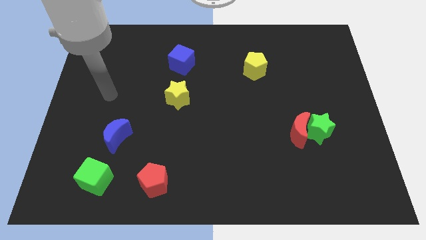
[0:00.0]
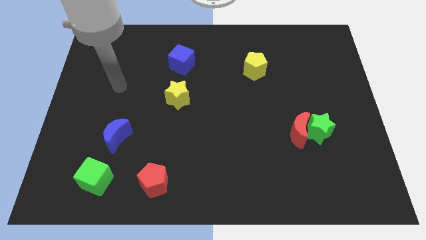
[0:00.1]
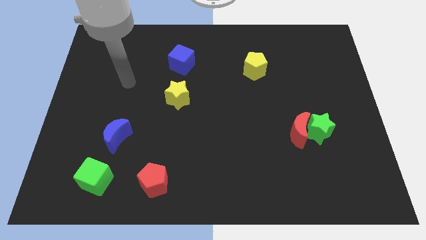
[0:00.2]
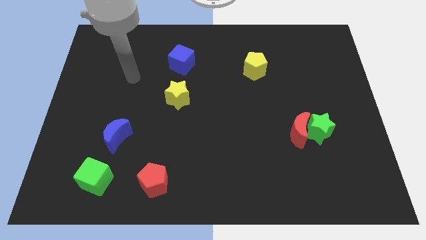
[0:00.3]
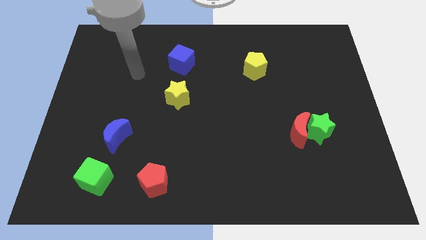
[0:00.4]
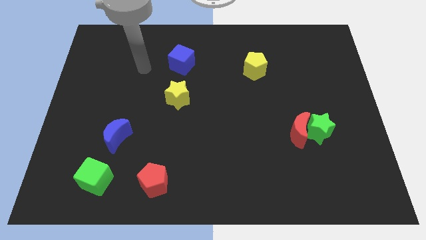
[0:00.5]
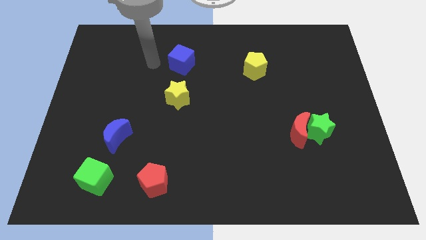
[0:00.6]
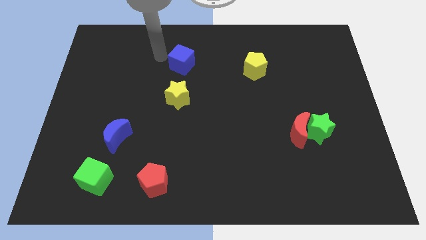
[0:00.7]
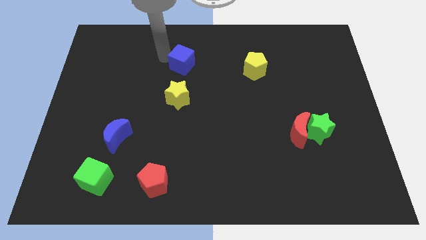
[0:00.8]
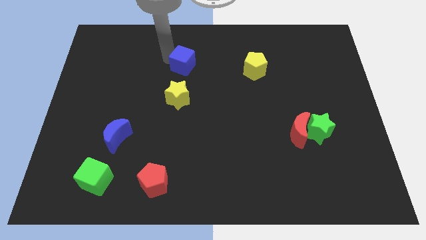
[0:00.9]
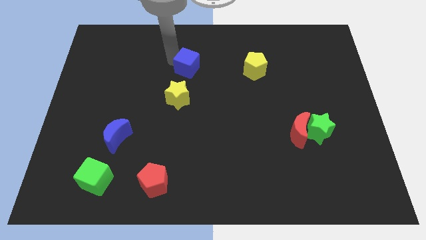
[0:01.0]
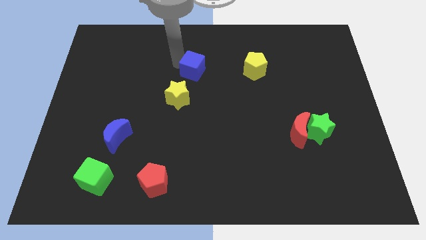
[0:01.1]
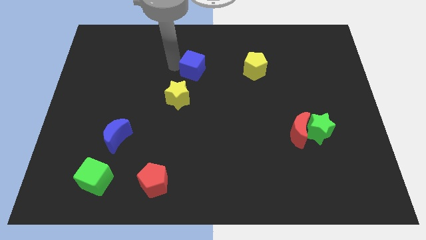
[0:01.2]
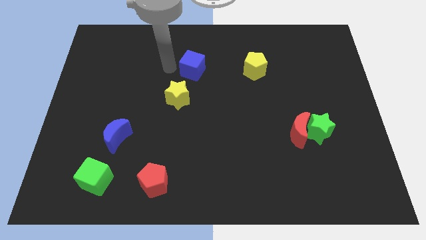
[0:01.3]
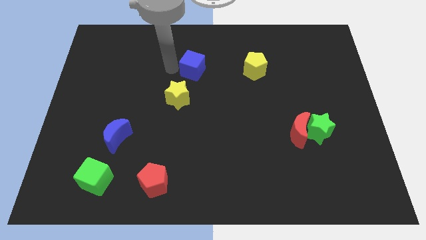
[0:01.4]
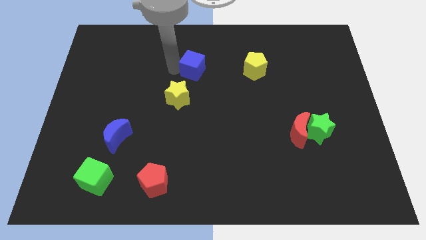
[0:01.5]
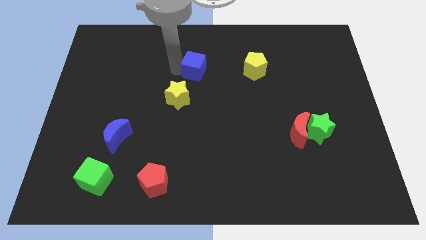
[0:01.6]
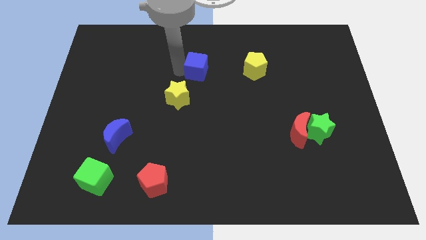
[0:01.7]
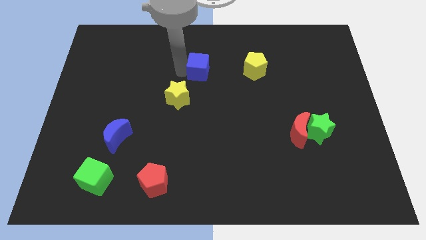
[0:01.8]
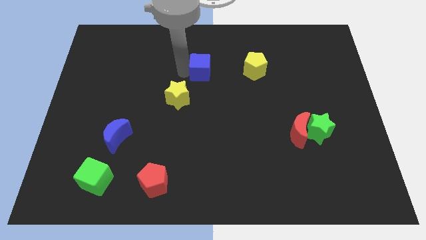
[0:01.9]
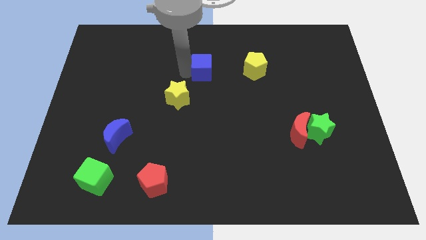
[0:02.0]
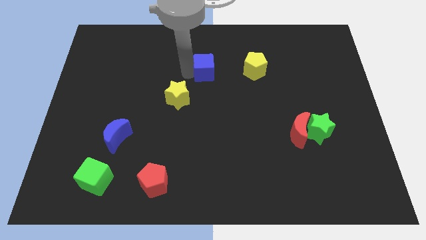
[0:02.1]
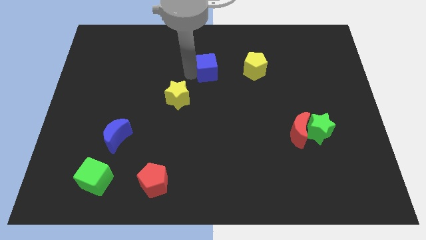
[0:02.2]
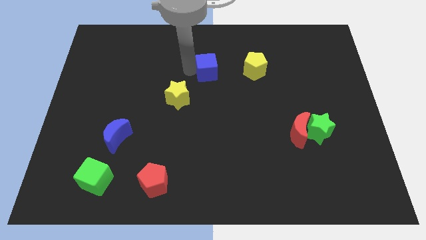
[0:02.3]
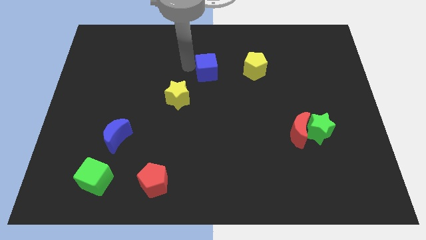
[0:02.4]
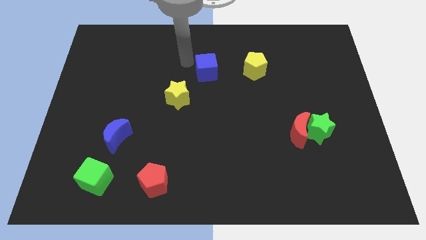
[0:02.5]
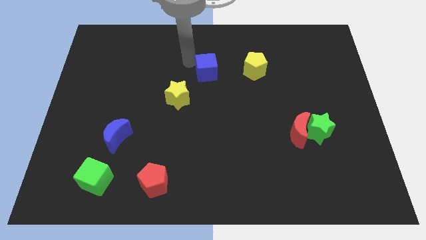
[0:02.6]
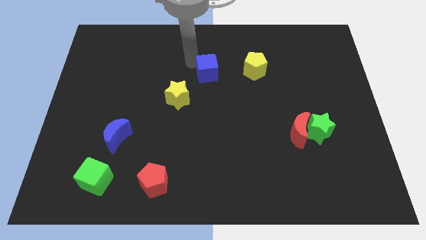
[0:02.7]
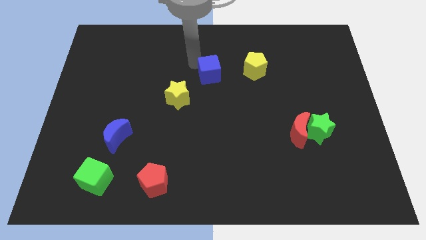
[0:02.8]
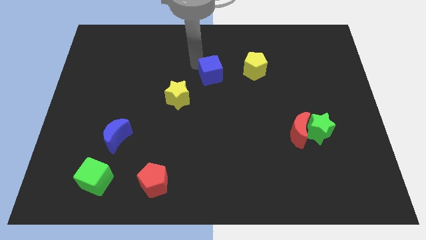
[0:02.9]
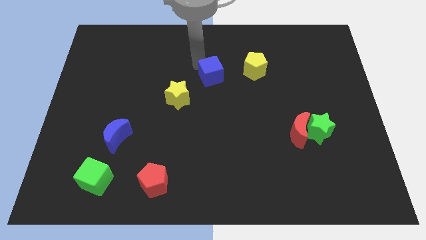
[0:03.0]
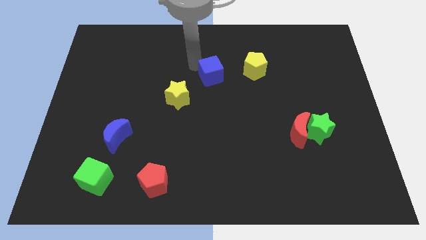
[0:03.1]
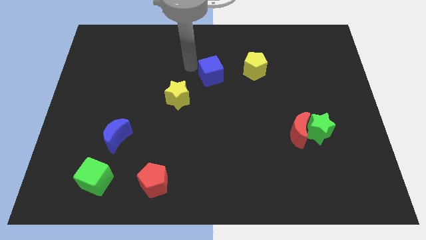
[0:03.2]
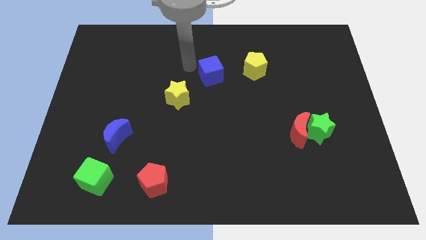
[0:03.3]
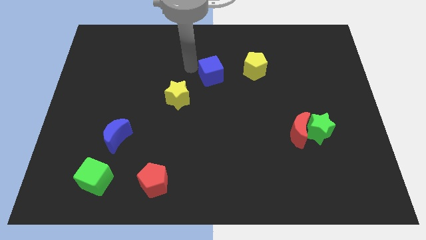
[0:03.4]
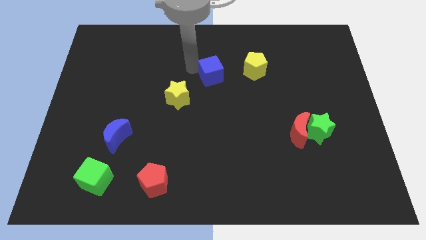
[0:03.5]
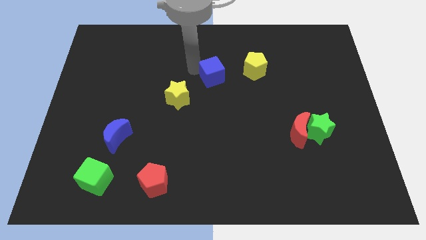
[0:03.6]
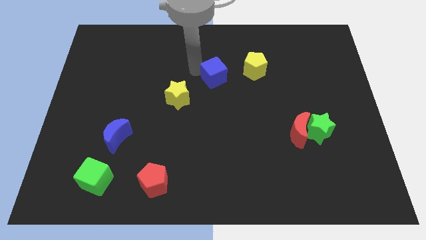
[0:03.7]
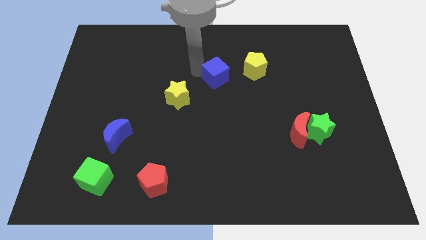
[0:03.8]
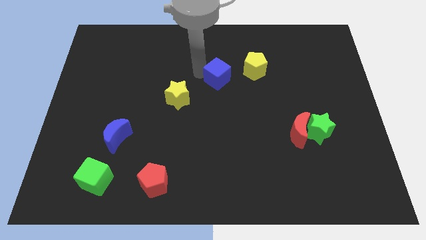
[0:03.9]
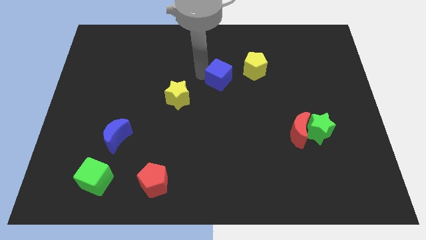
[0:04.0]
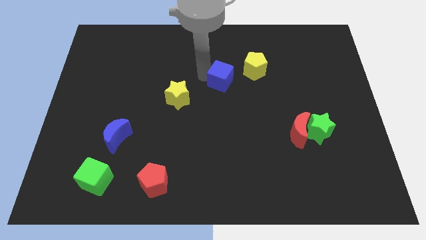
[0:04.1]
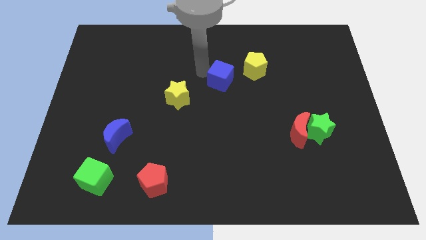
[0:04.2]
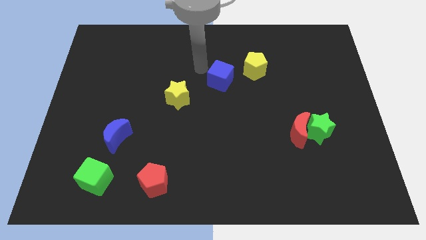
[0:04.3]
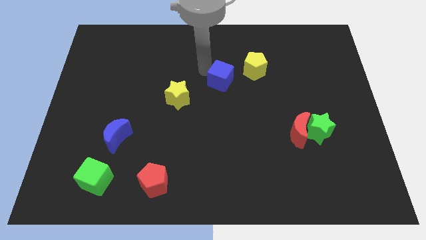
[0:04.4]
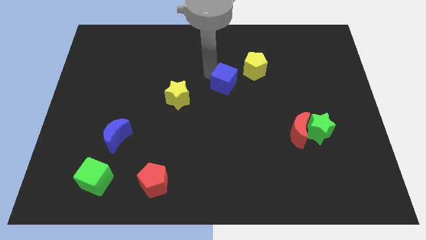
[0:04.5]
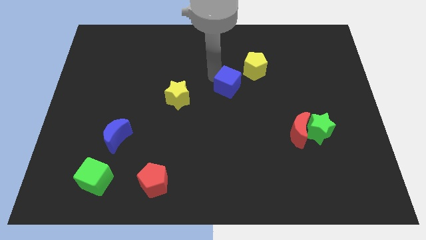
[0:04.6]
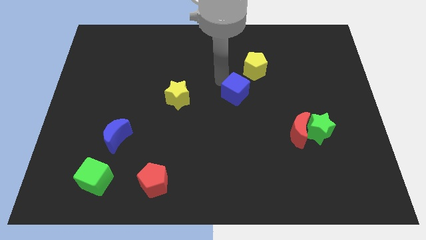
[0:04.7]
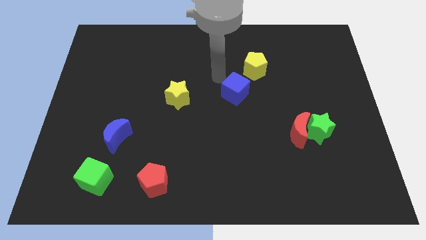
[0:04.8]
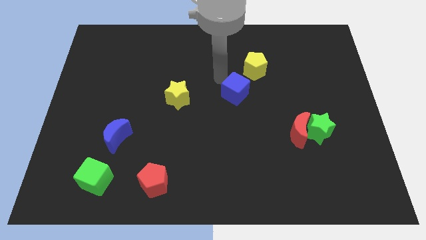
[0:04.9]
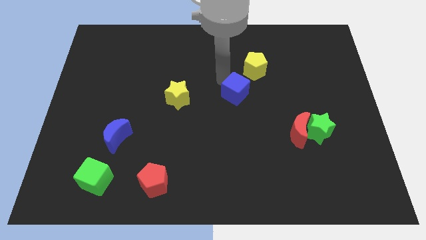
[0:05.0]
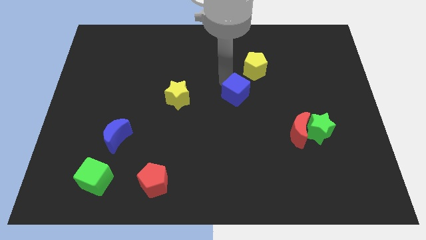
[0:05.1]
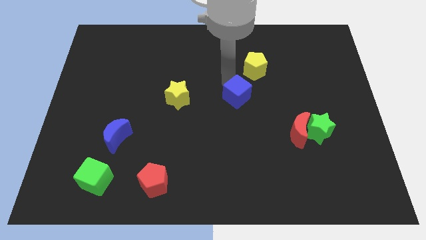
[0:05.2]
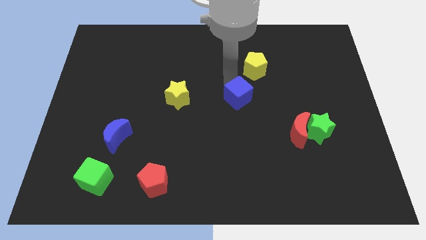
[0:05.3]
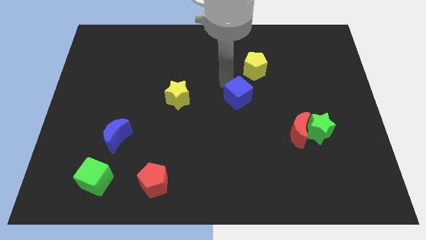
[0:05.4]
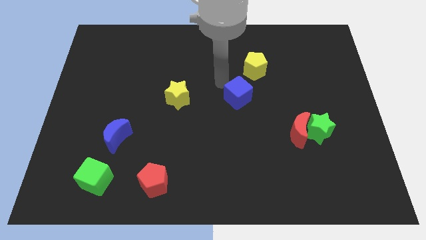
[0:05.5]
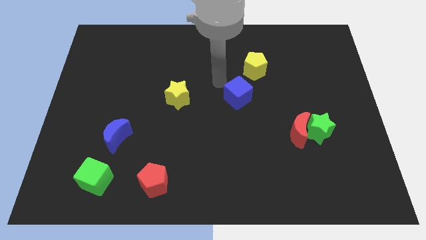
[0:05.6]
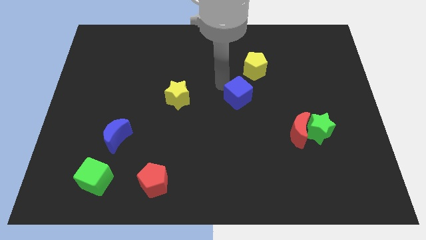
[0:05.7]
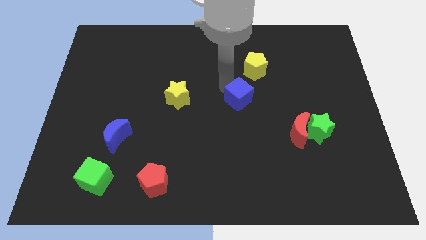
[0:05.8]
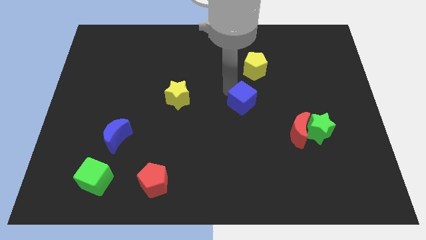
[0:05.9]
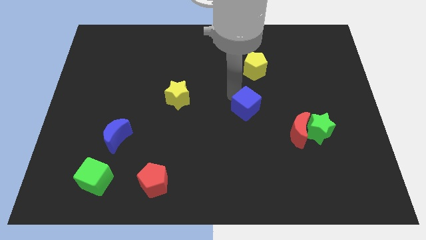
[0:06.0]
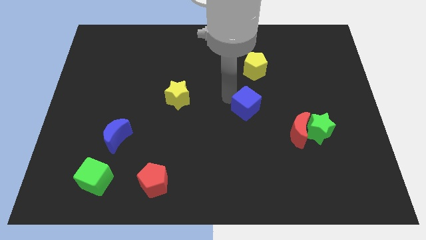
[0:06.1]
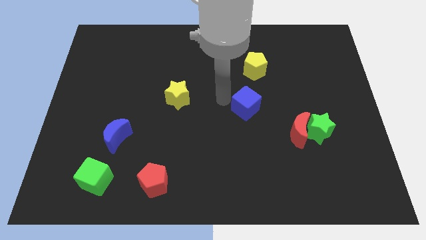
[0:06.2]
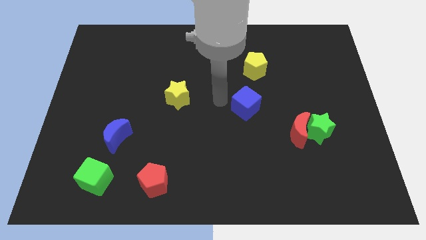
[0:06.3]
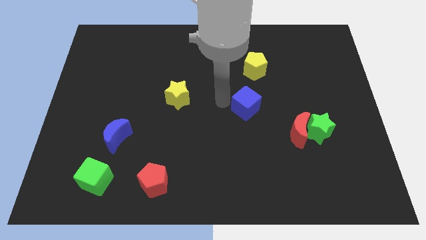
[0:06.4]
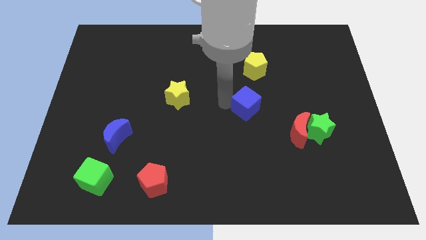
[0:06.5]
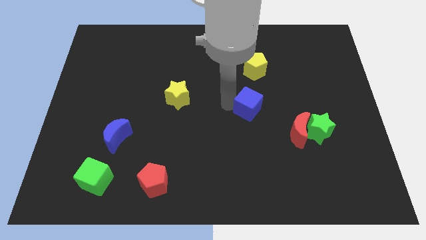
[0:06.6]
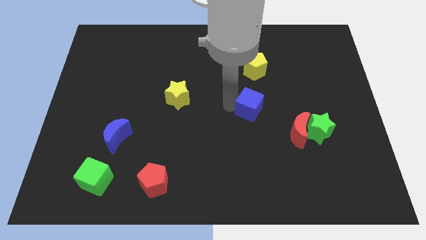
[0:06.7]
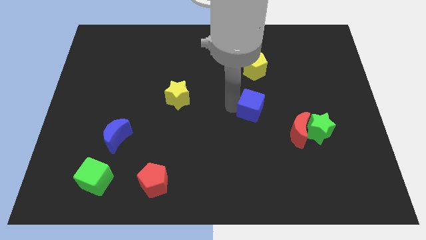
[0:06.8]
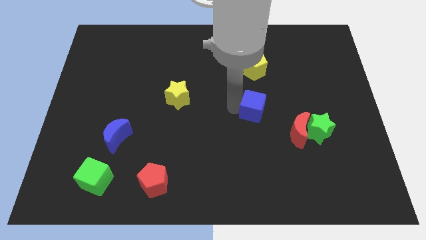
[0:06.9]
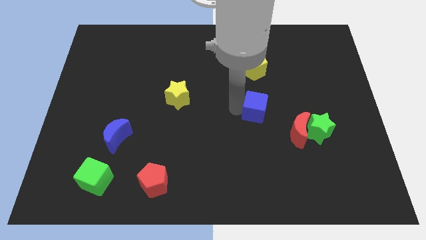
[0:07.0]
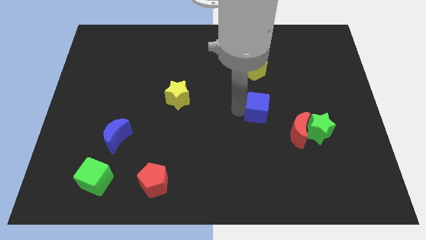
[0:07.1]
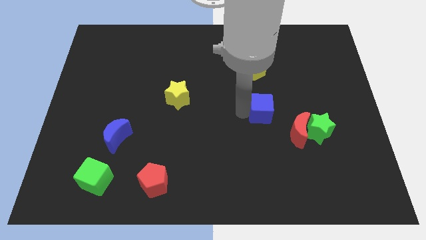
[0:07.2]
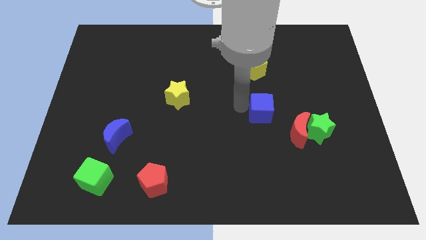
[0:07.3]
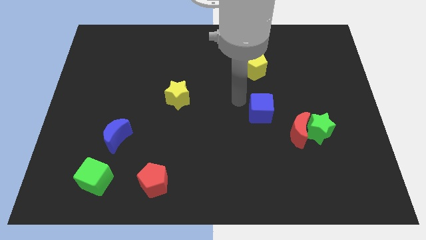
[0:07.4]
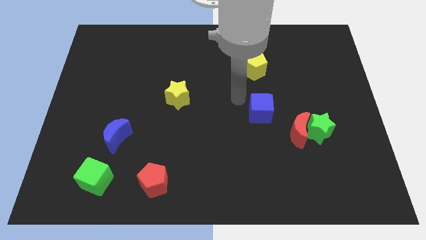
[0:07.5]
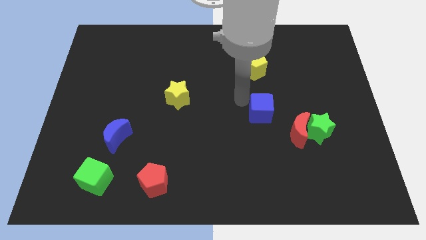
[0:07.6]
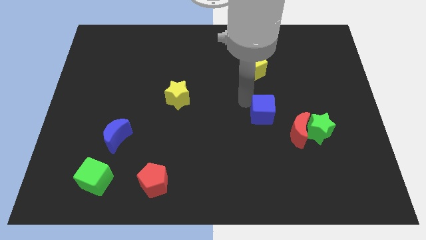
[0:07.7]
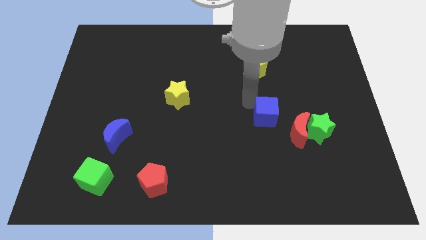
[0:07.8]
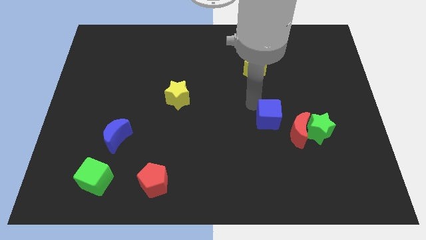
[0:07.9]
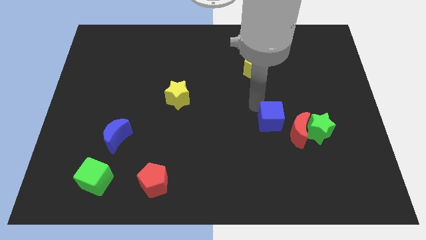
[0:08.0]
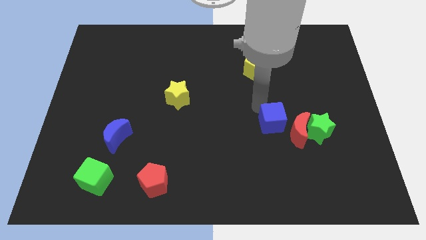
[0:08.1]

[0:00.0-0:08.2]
put the blue cube next to the red moon
